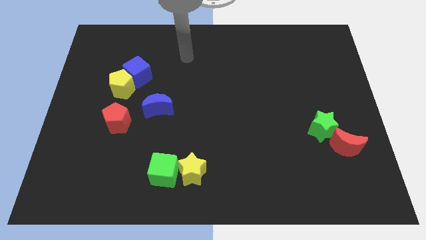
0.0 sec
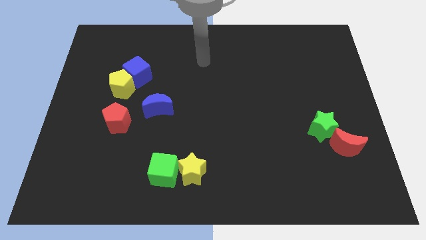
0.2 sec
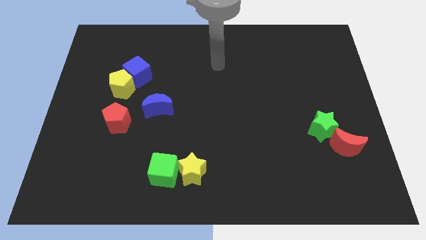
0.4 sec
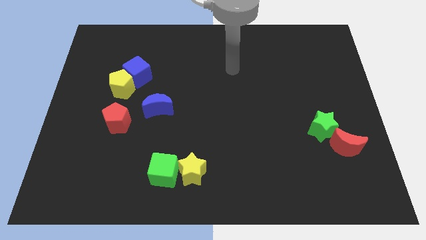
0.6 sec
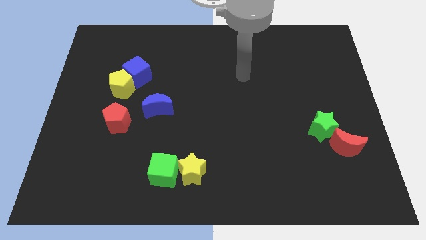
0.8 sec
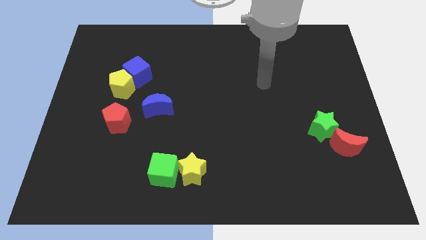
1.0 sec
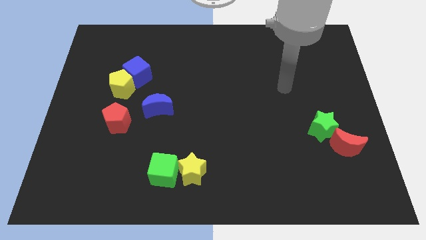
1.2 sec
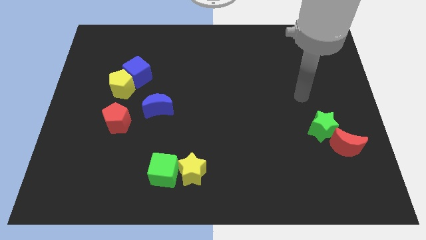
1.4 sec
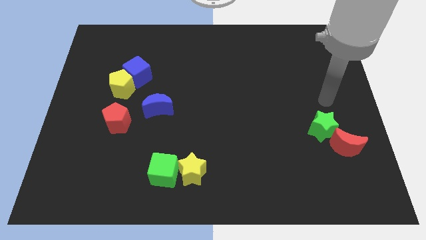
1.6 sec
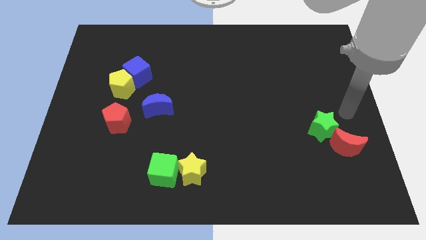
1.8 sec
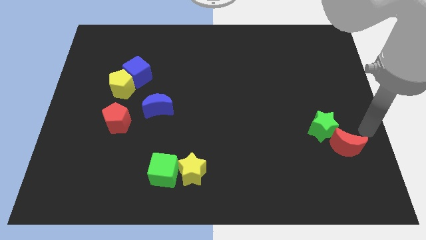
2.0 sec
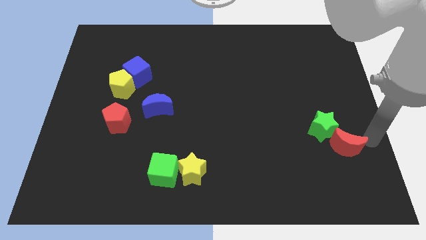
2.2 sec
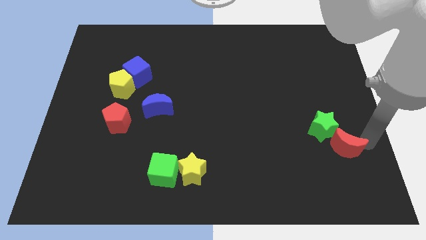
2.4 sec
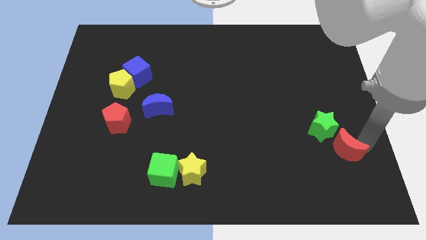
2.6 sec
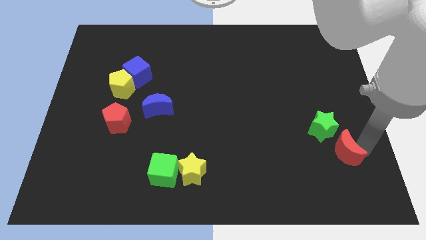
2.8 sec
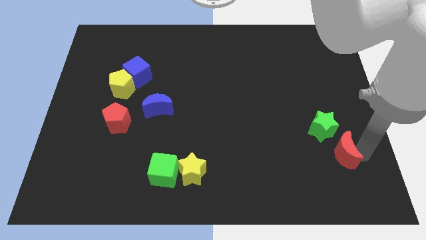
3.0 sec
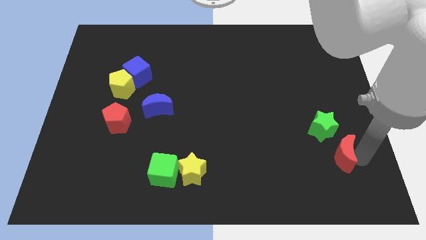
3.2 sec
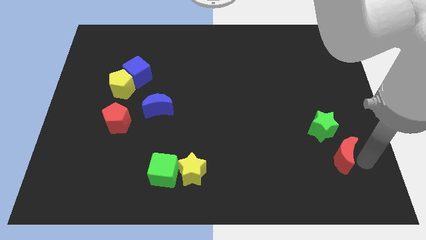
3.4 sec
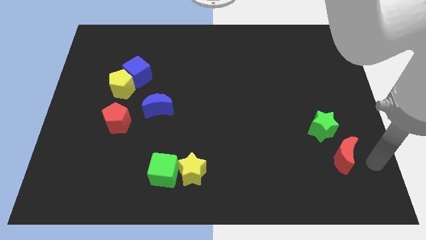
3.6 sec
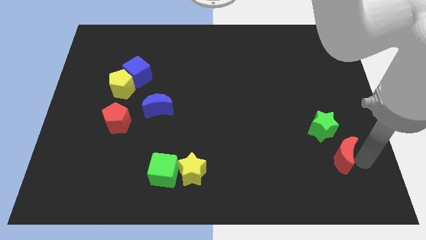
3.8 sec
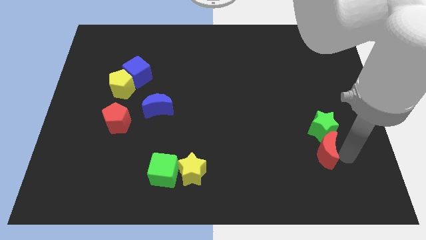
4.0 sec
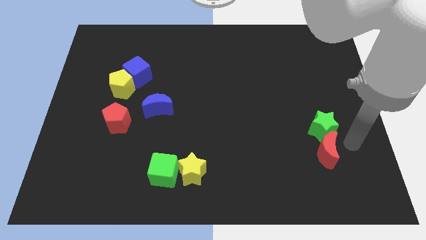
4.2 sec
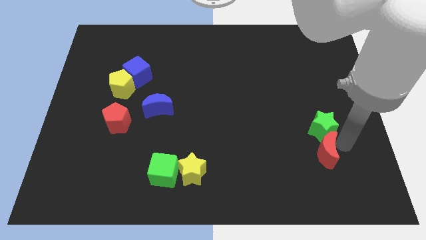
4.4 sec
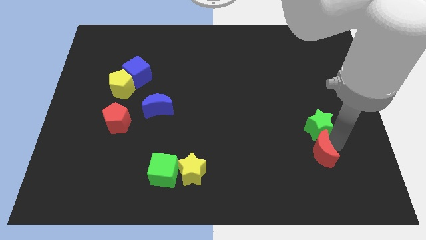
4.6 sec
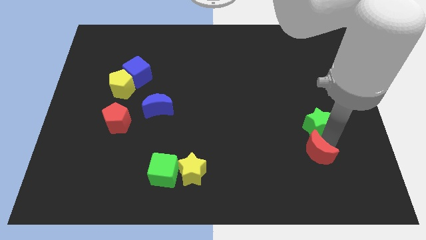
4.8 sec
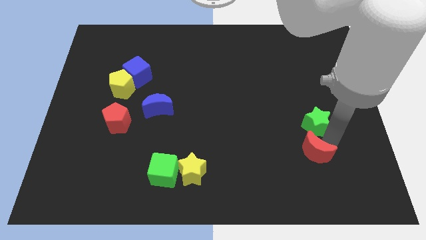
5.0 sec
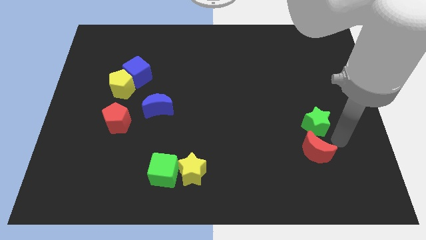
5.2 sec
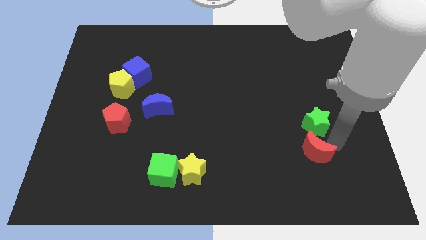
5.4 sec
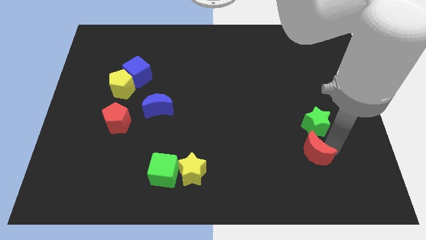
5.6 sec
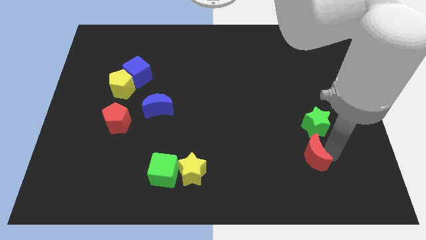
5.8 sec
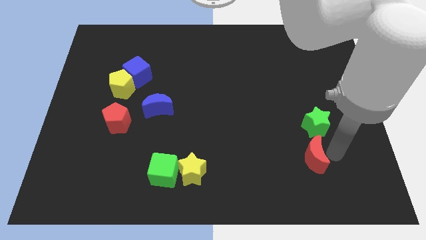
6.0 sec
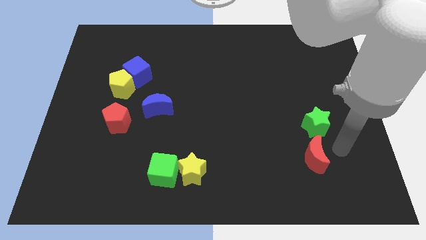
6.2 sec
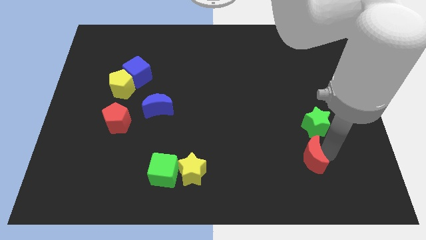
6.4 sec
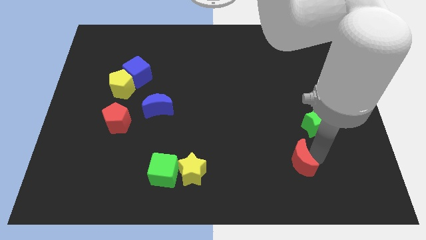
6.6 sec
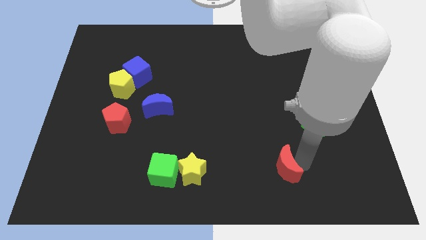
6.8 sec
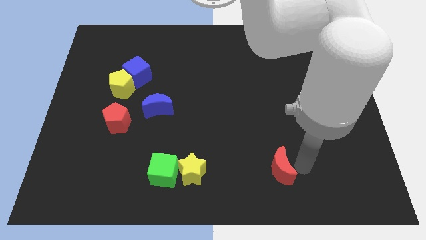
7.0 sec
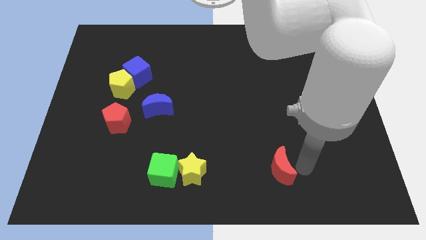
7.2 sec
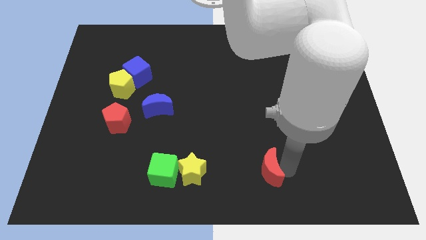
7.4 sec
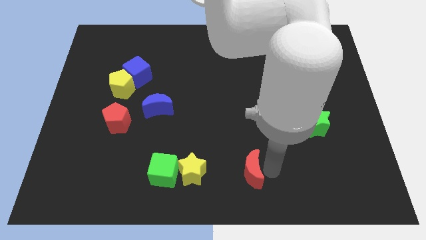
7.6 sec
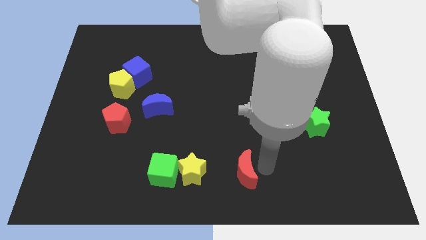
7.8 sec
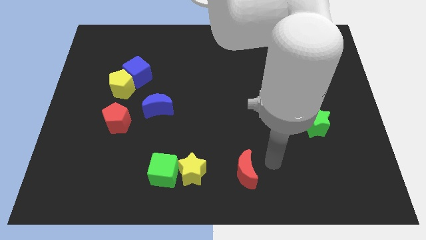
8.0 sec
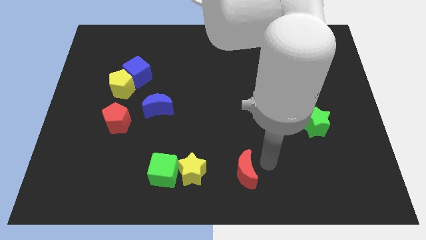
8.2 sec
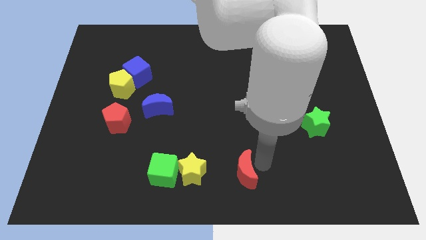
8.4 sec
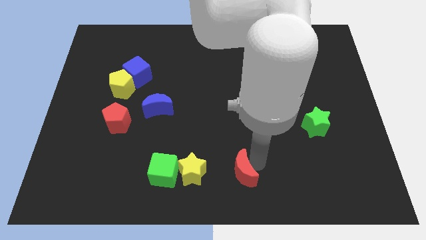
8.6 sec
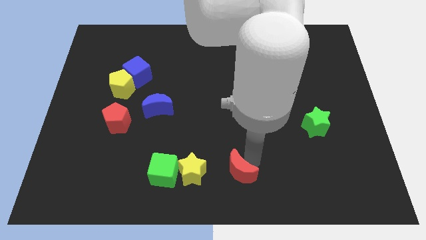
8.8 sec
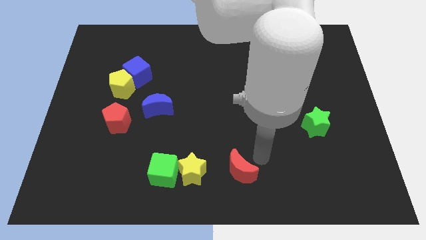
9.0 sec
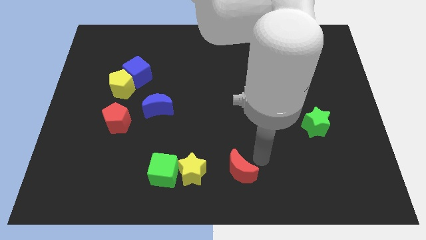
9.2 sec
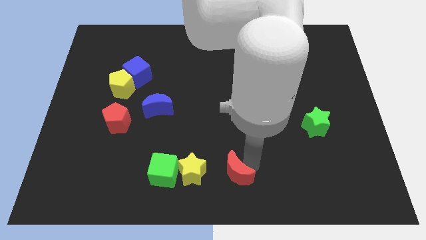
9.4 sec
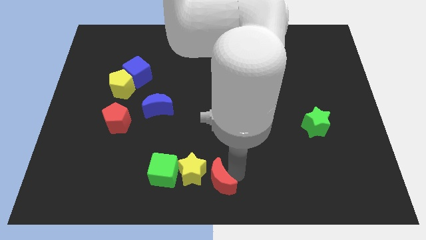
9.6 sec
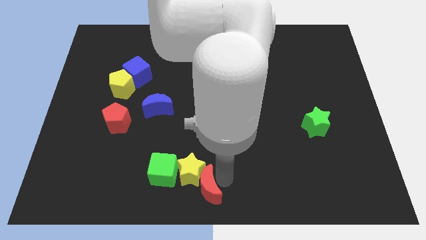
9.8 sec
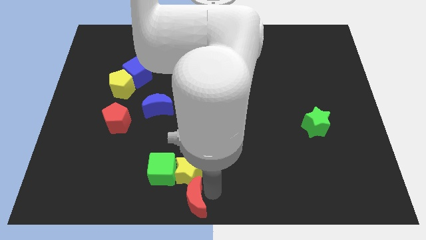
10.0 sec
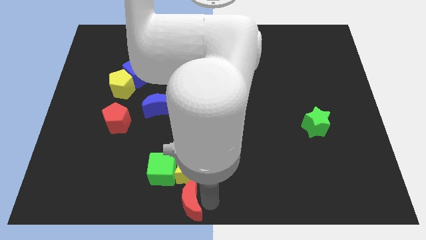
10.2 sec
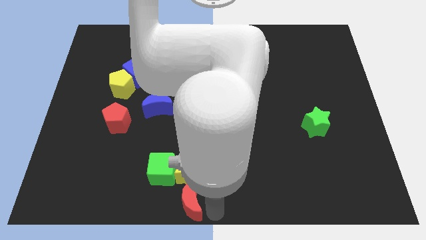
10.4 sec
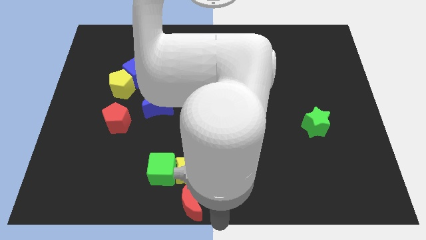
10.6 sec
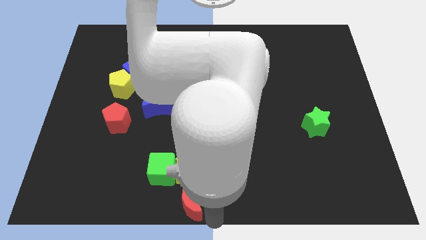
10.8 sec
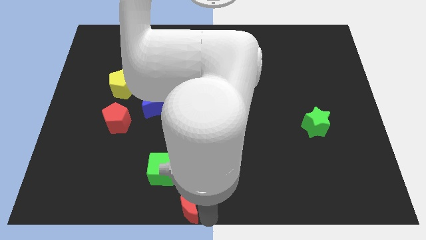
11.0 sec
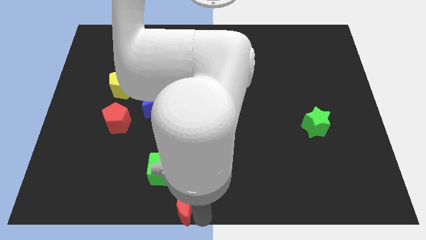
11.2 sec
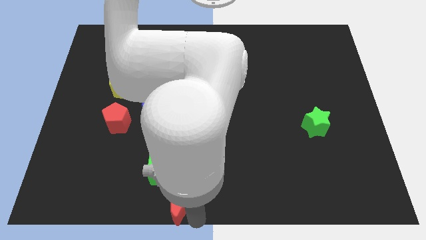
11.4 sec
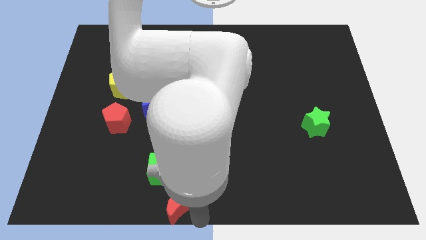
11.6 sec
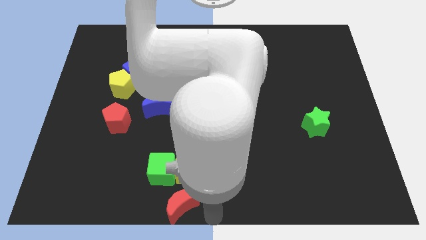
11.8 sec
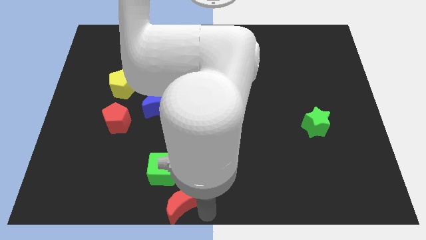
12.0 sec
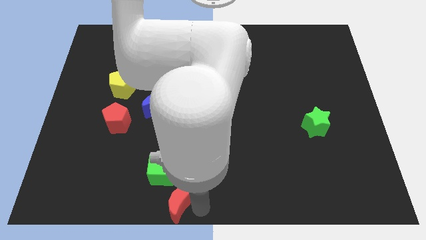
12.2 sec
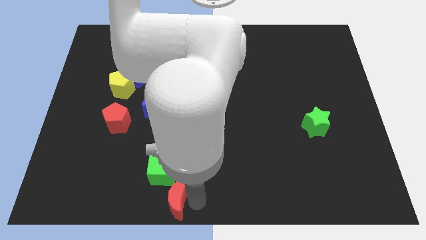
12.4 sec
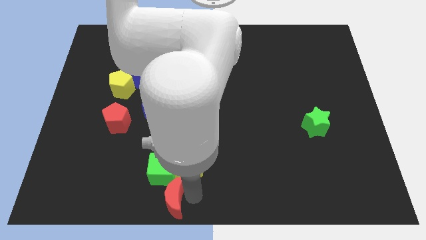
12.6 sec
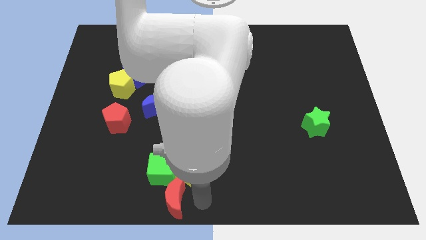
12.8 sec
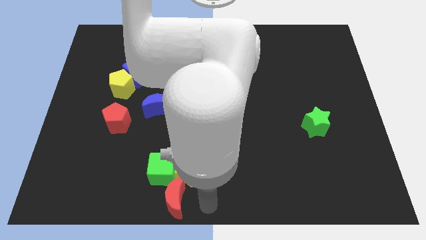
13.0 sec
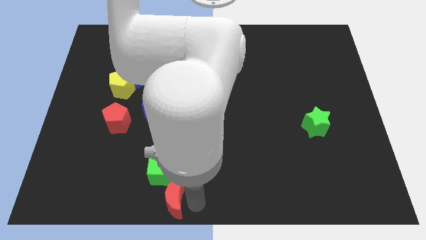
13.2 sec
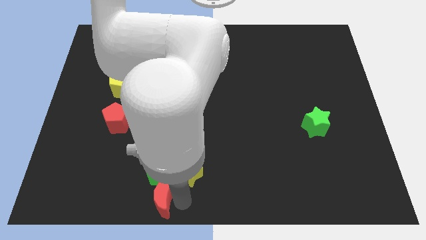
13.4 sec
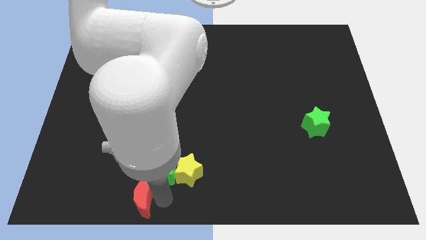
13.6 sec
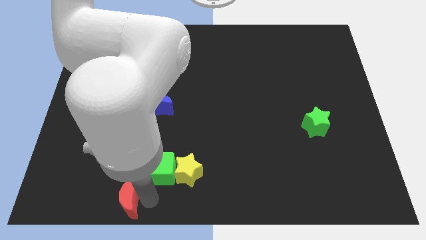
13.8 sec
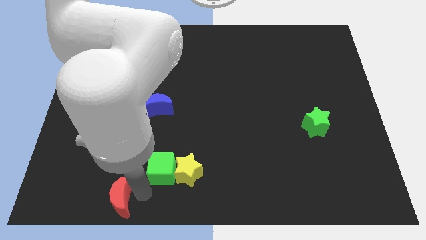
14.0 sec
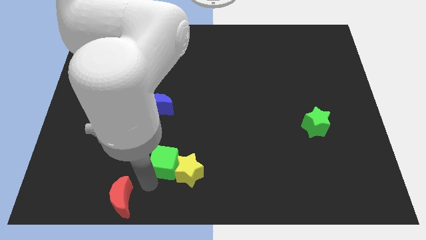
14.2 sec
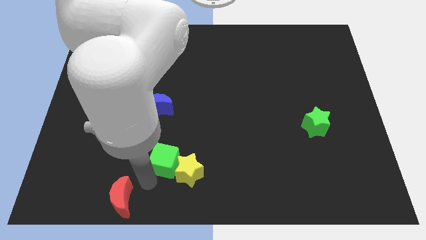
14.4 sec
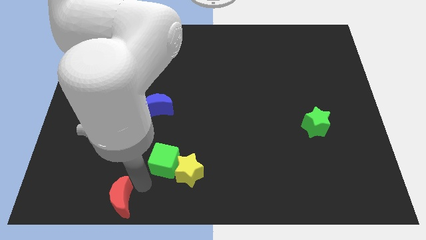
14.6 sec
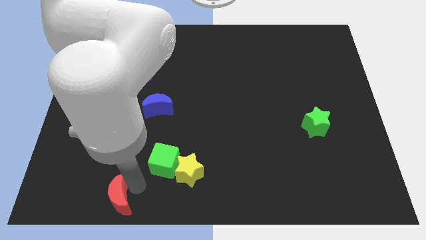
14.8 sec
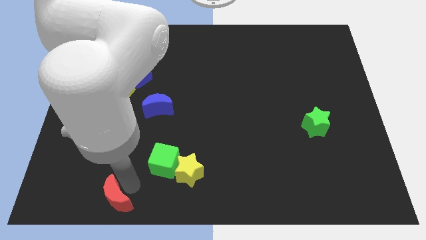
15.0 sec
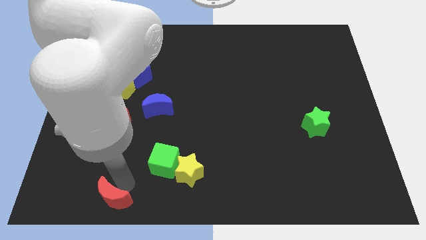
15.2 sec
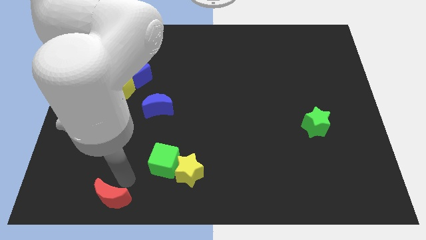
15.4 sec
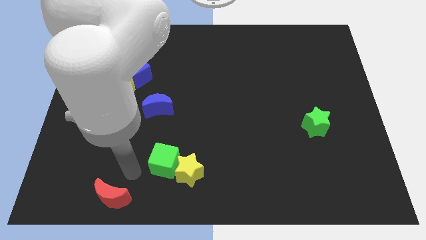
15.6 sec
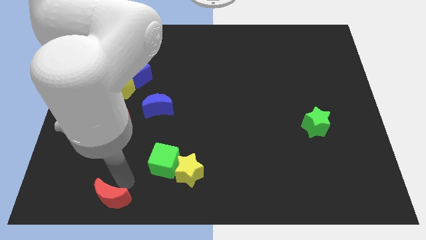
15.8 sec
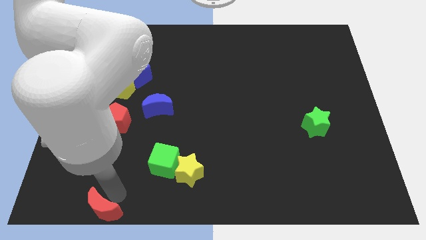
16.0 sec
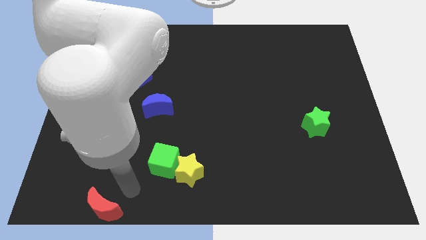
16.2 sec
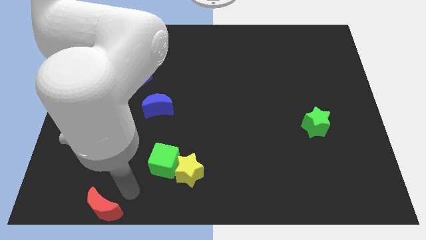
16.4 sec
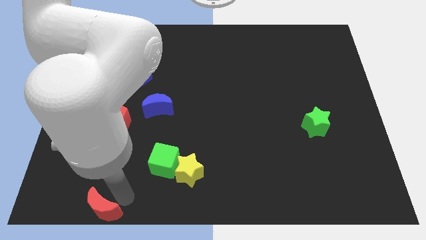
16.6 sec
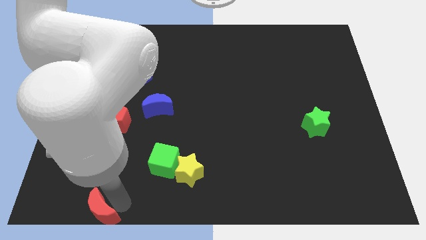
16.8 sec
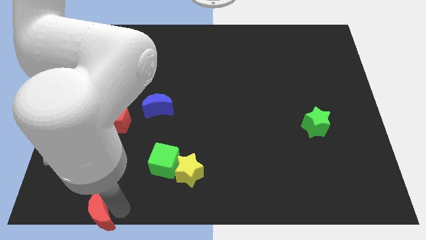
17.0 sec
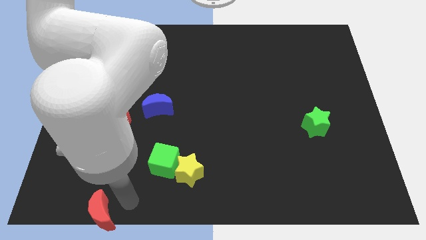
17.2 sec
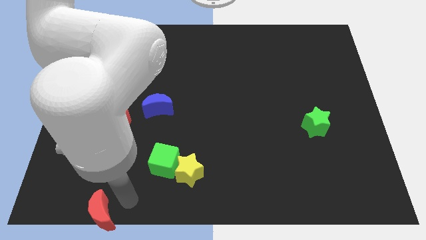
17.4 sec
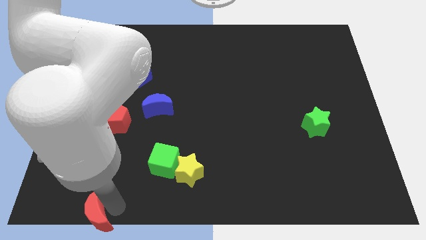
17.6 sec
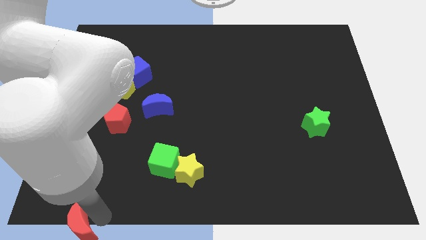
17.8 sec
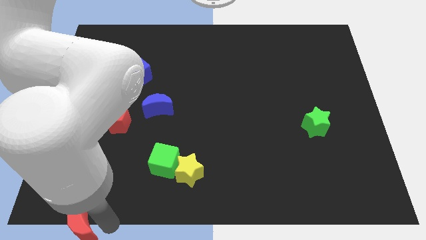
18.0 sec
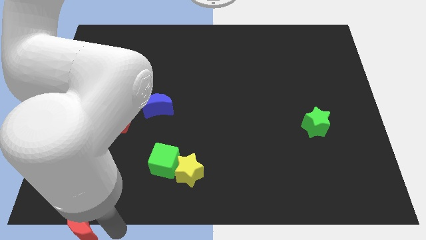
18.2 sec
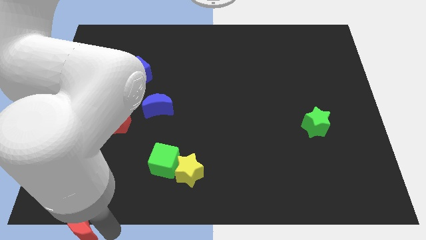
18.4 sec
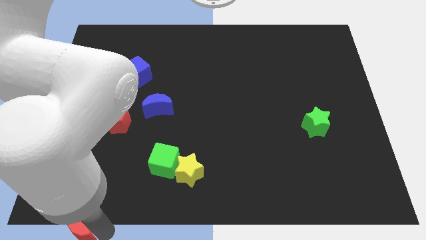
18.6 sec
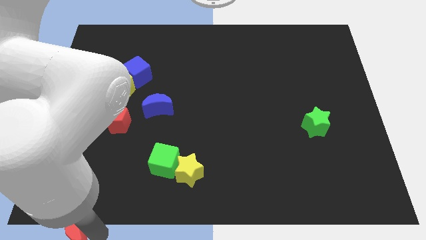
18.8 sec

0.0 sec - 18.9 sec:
move the red moon to the bottom left corner
